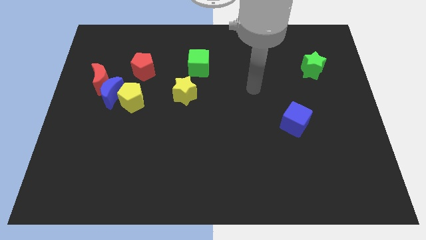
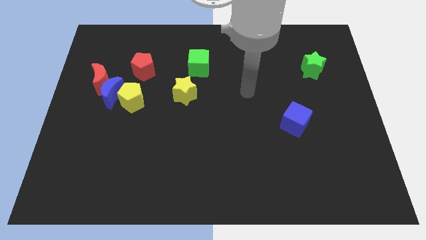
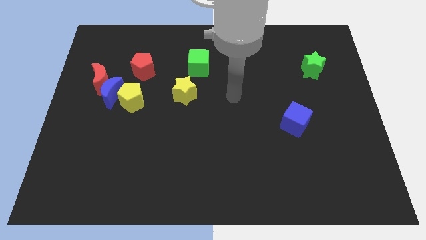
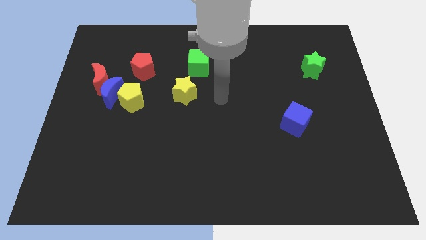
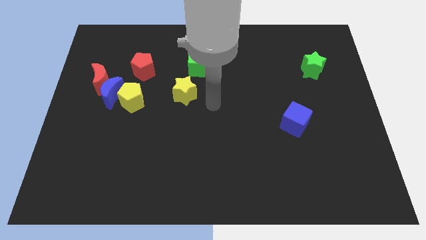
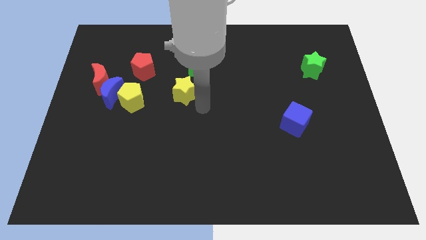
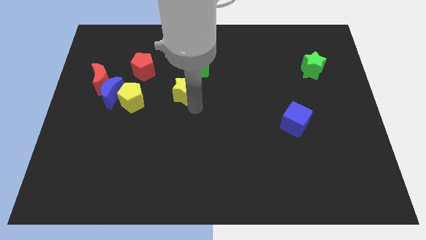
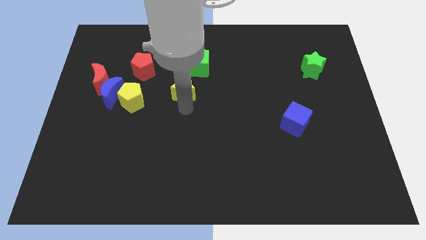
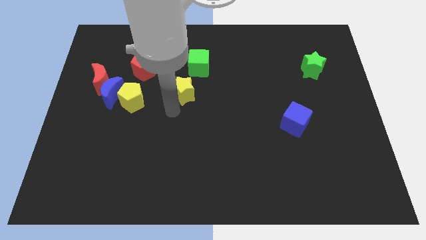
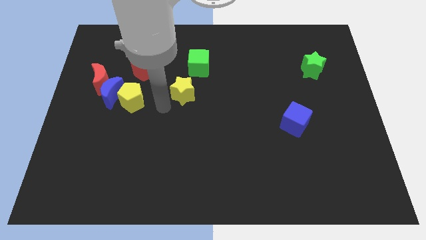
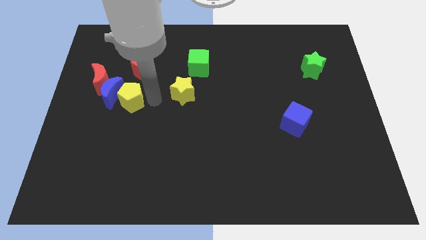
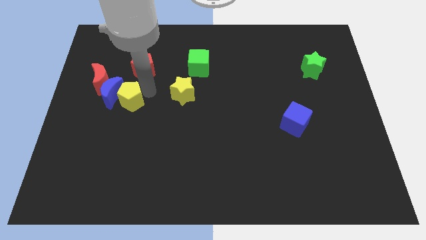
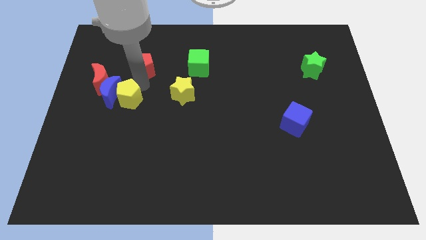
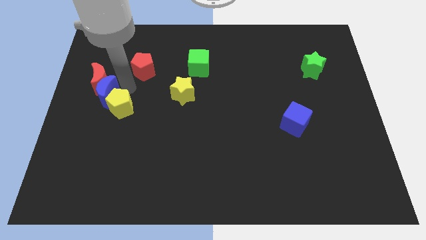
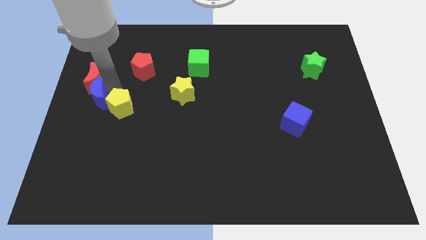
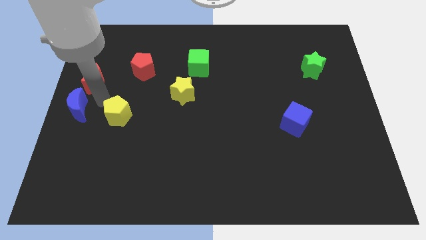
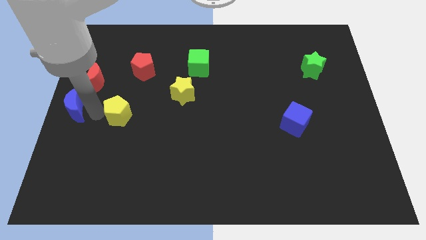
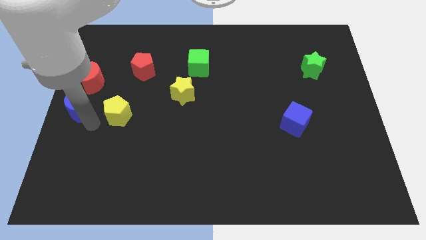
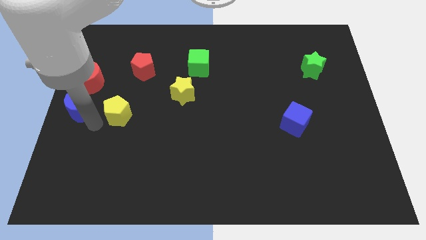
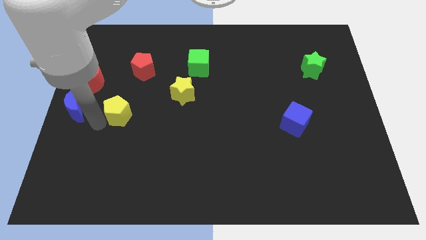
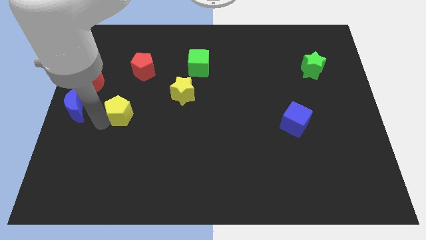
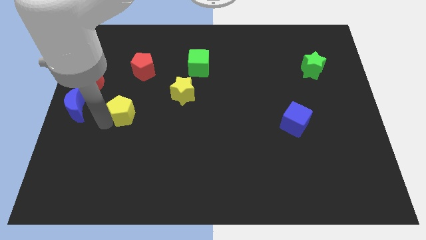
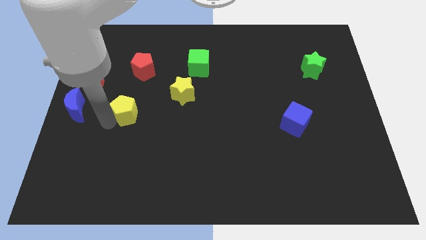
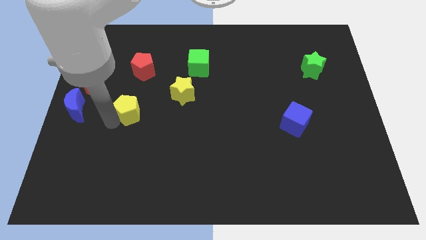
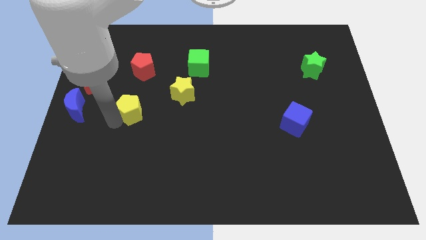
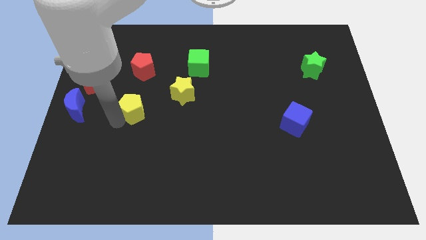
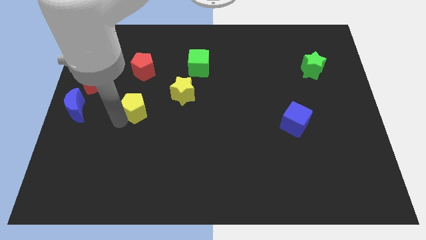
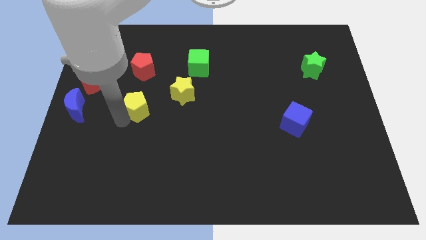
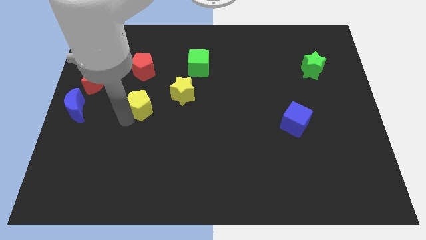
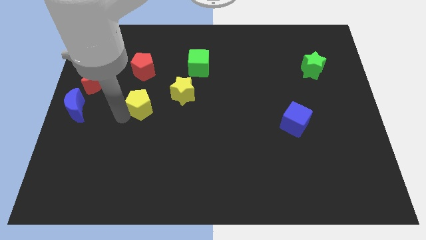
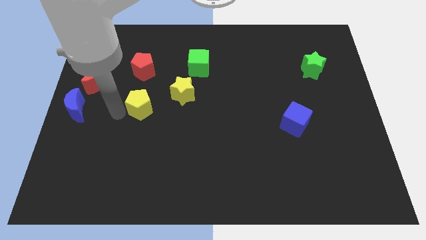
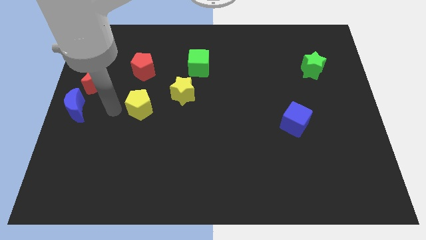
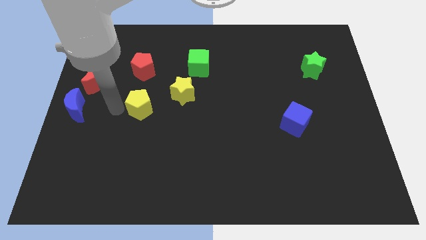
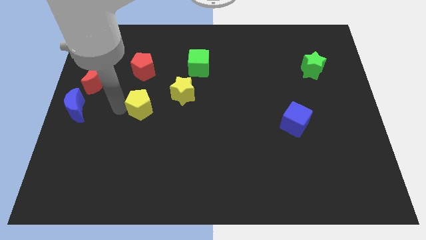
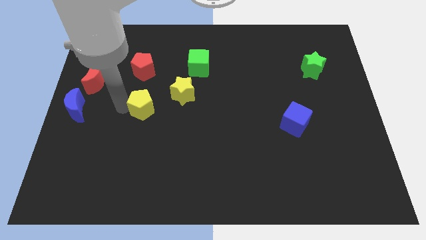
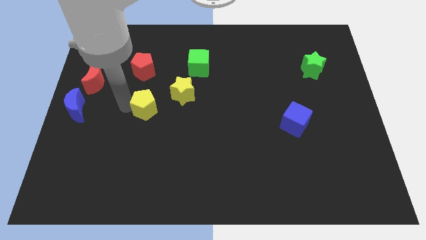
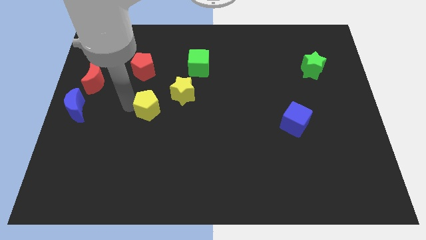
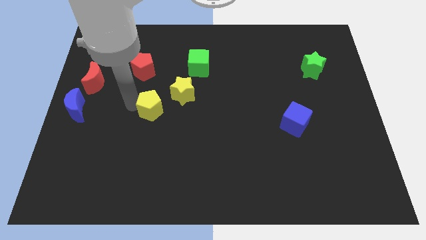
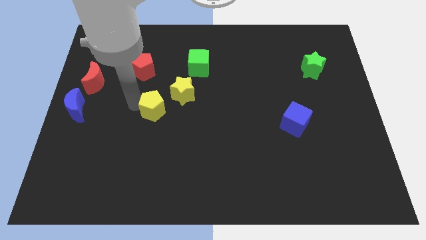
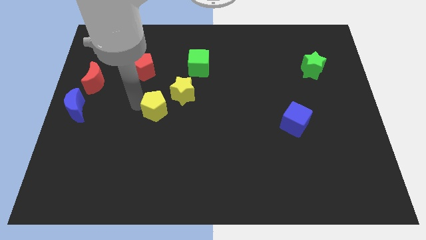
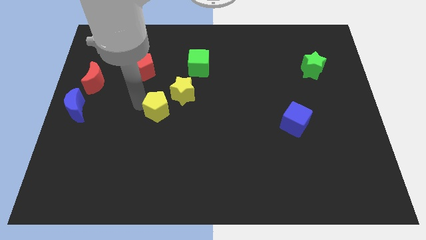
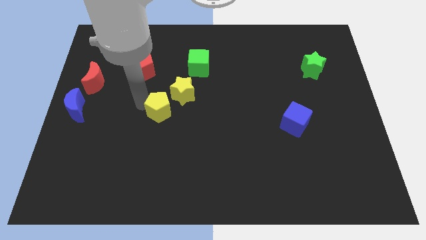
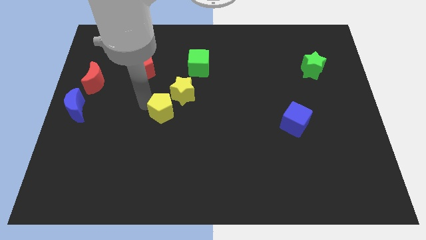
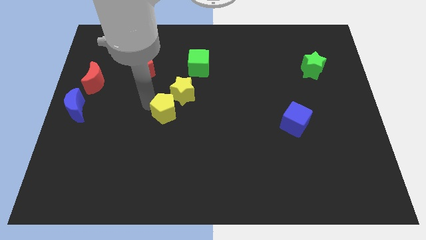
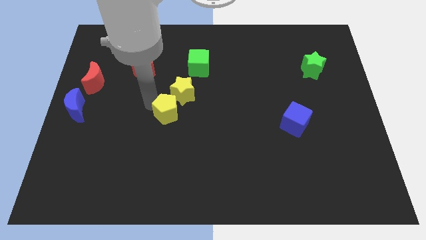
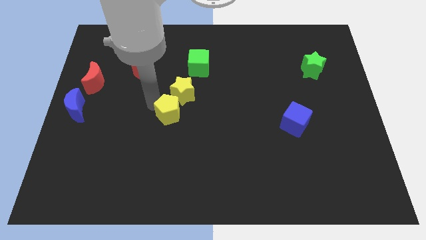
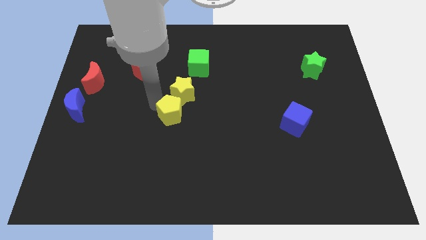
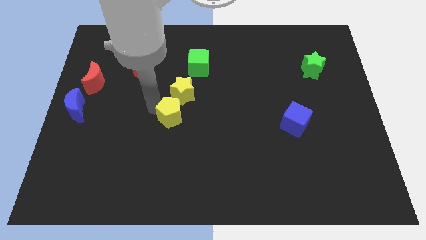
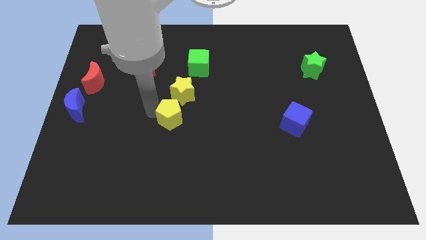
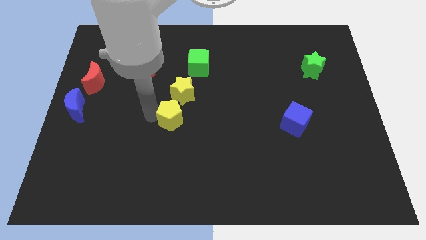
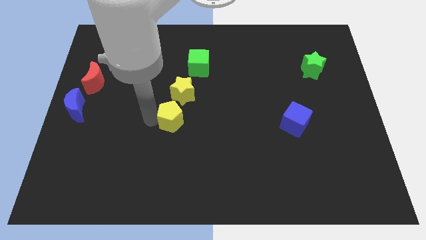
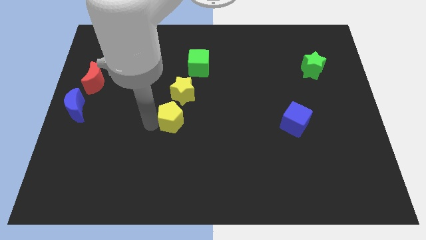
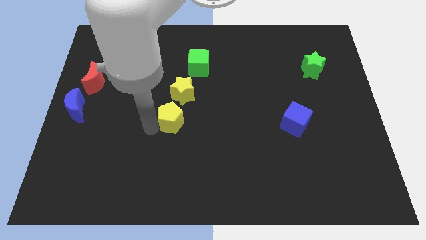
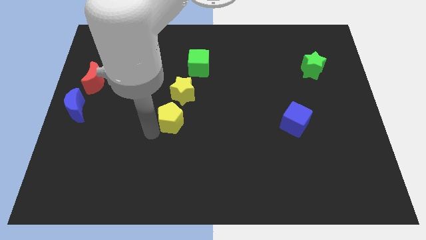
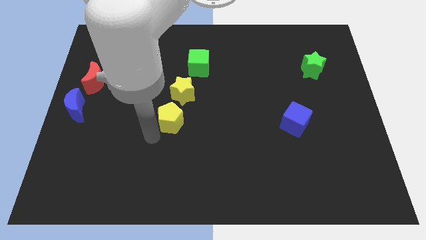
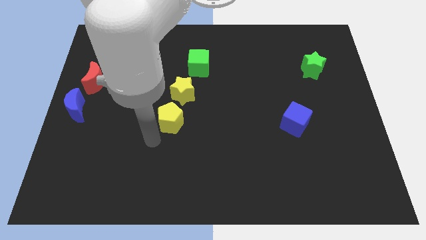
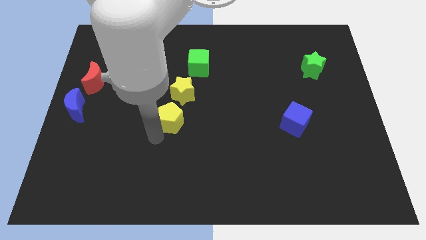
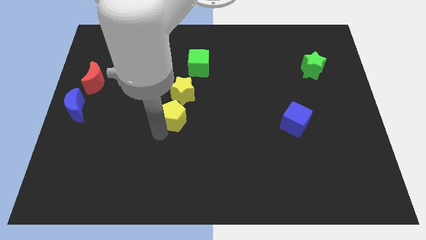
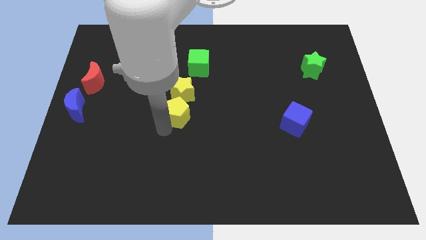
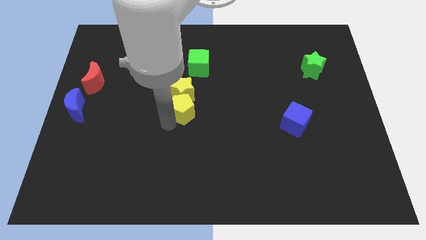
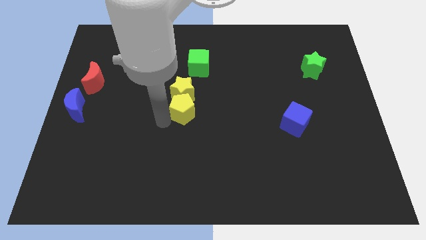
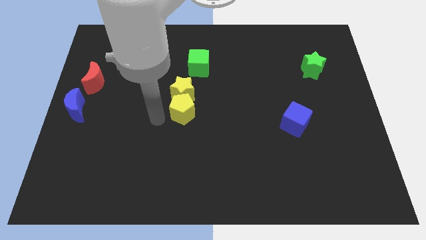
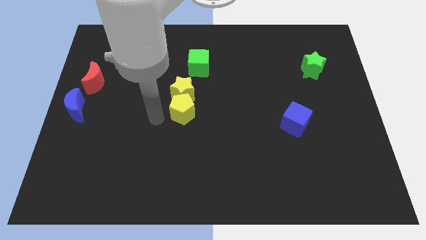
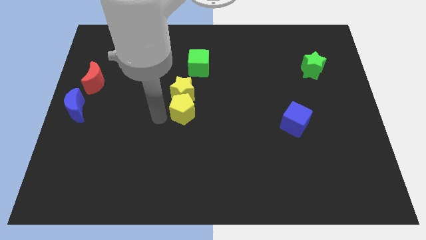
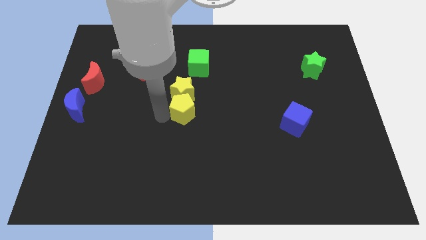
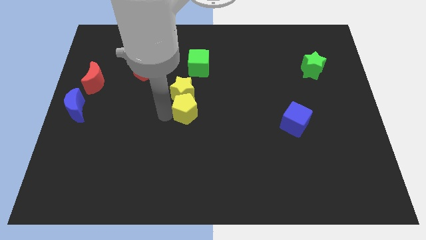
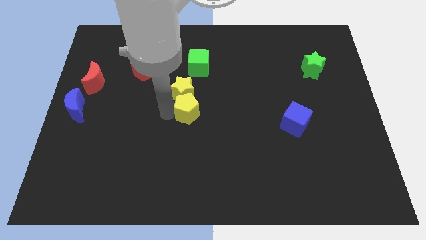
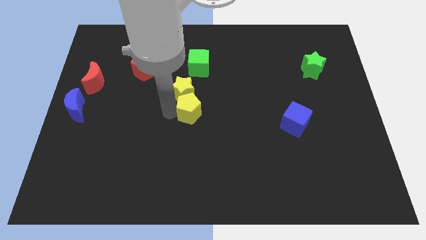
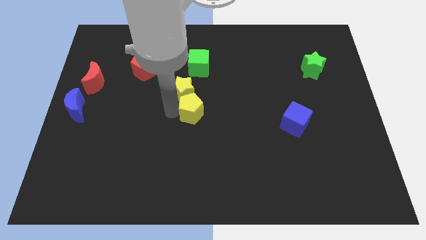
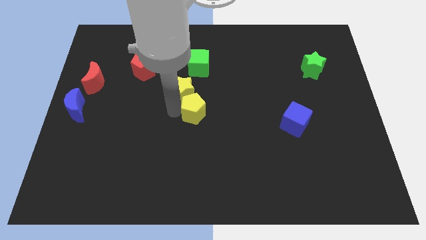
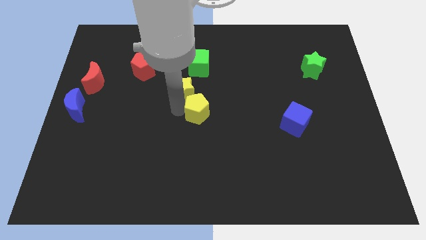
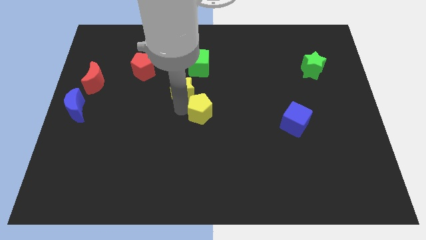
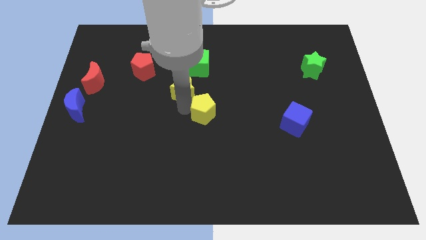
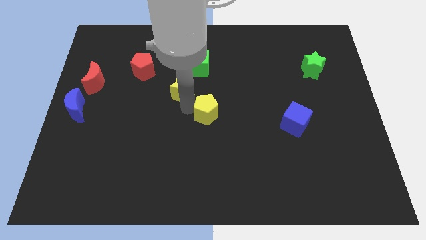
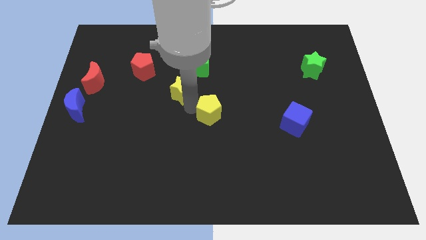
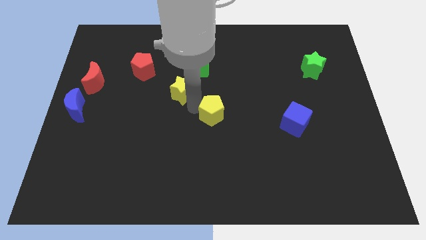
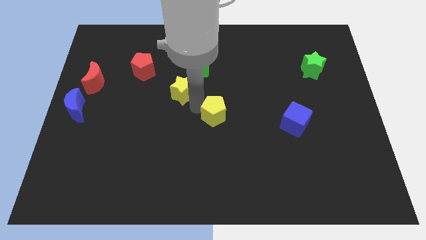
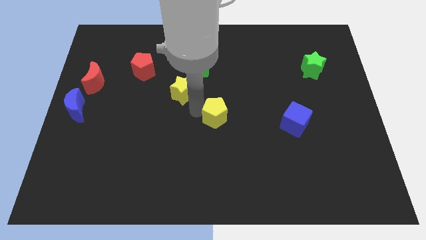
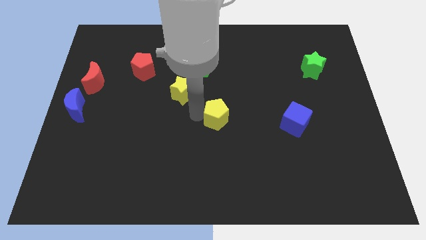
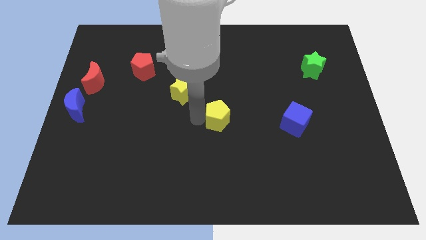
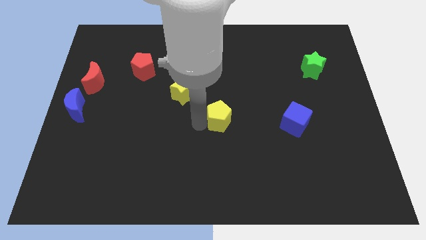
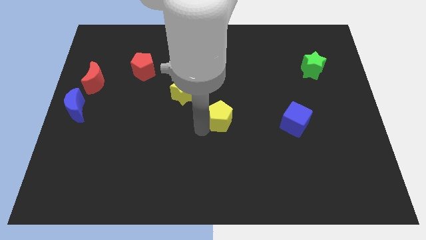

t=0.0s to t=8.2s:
move the yellow pentagon to the right
